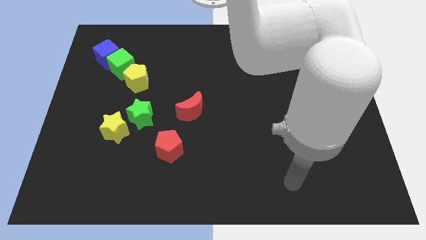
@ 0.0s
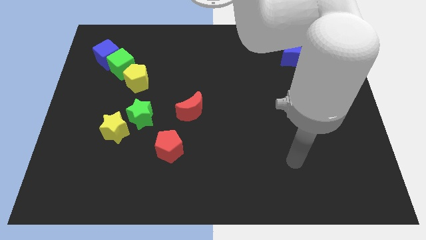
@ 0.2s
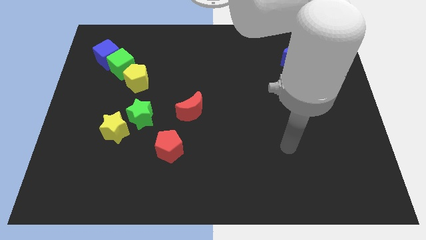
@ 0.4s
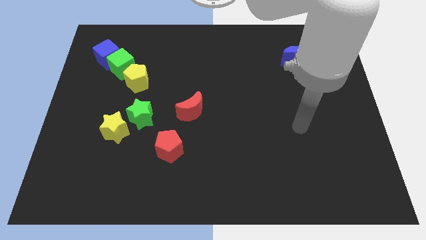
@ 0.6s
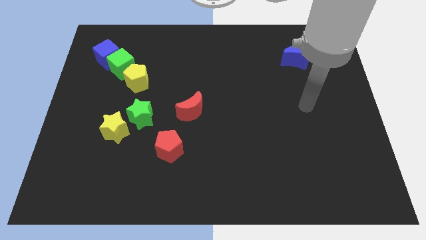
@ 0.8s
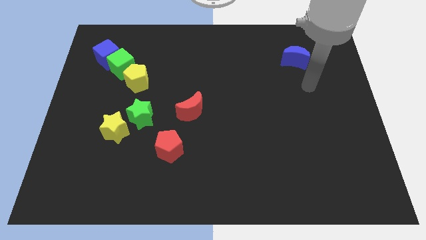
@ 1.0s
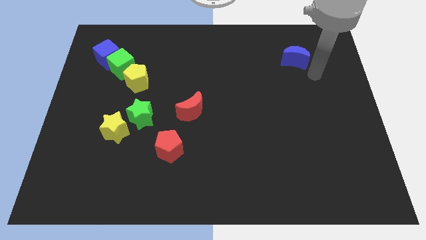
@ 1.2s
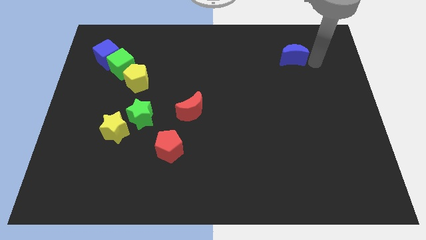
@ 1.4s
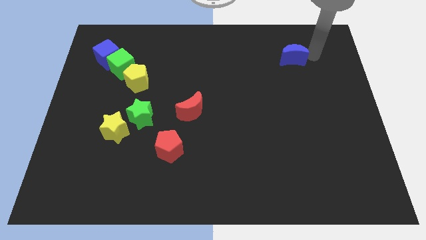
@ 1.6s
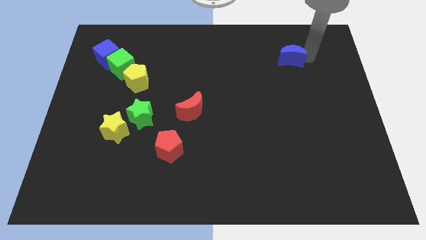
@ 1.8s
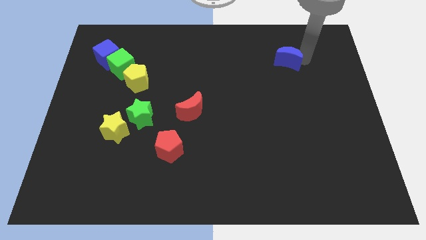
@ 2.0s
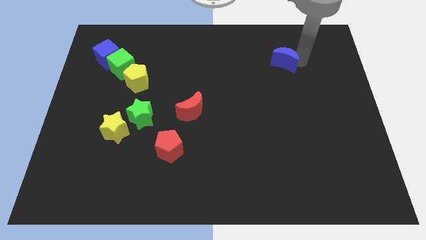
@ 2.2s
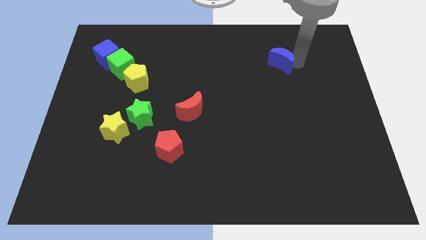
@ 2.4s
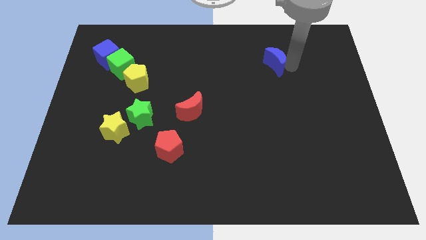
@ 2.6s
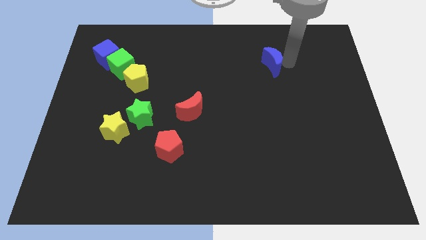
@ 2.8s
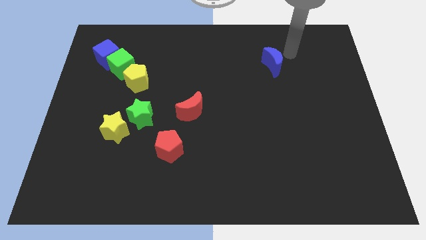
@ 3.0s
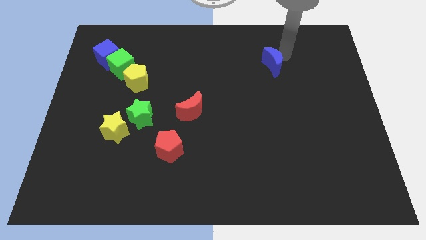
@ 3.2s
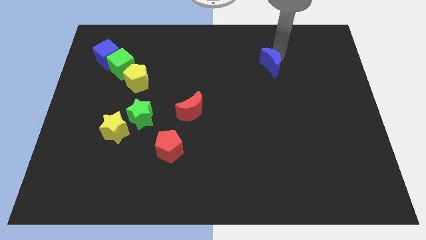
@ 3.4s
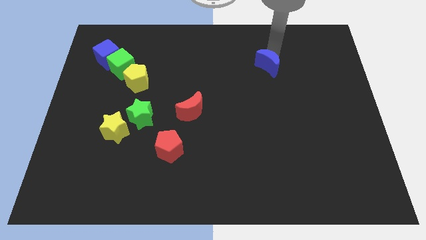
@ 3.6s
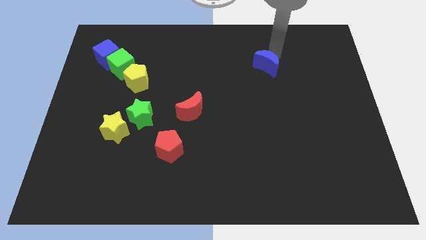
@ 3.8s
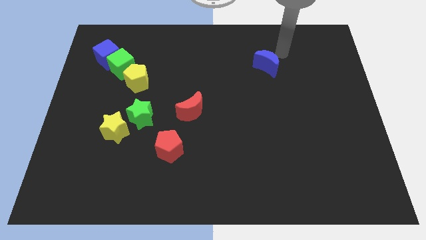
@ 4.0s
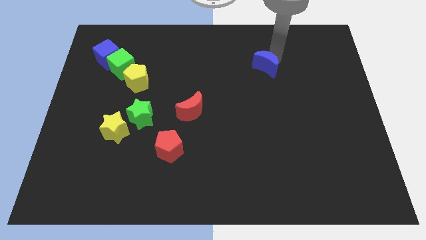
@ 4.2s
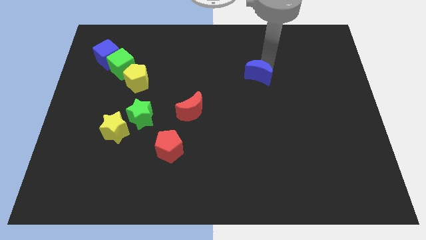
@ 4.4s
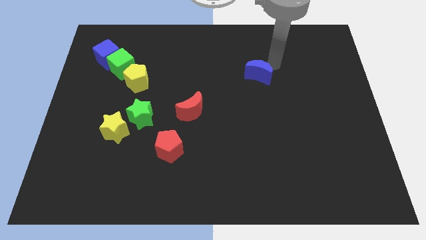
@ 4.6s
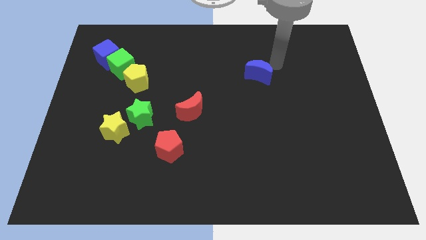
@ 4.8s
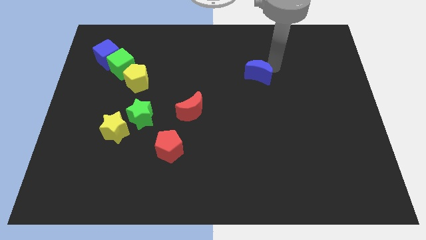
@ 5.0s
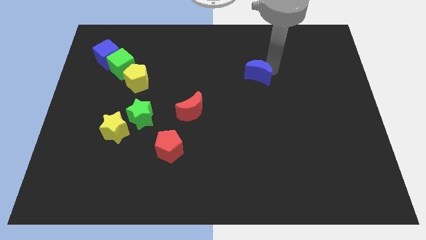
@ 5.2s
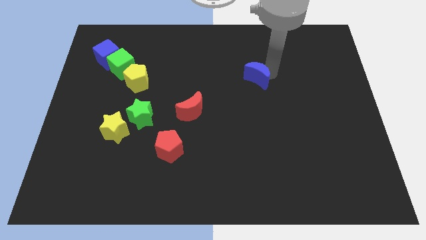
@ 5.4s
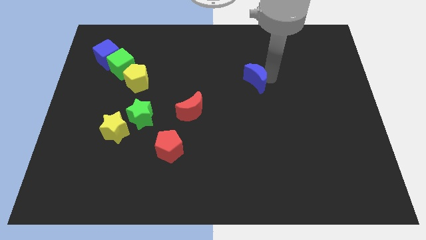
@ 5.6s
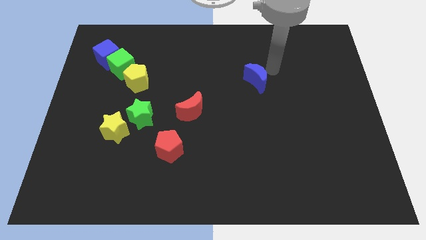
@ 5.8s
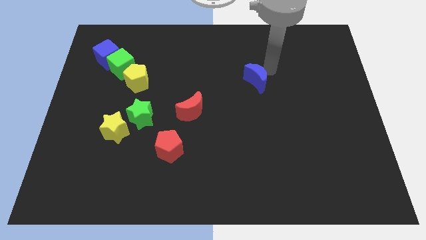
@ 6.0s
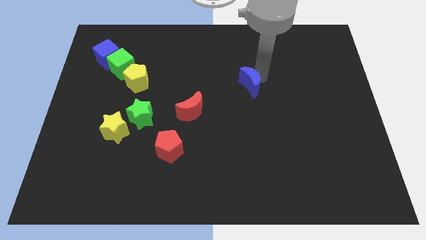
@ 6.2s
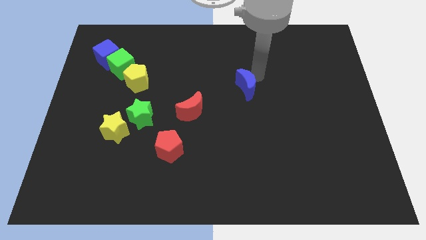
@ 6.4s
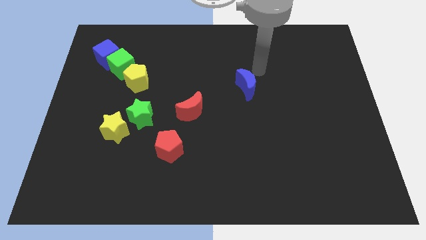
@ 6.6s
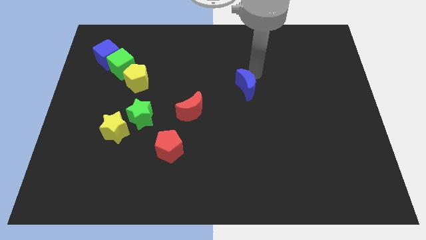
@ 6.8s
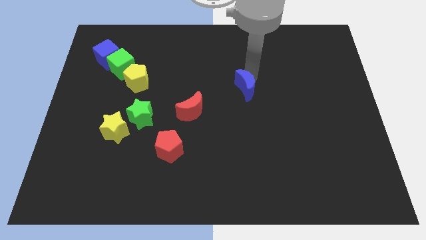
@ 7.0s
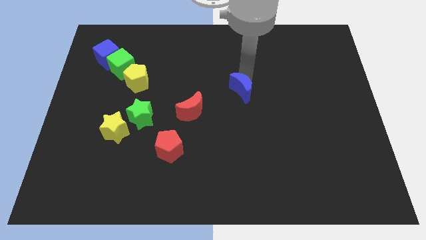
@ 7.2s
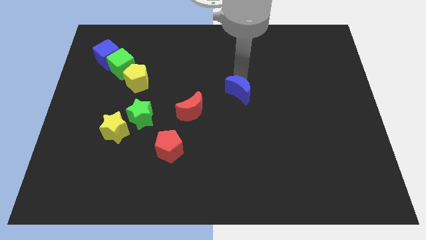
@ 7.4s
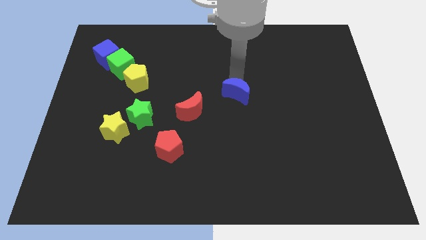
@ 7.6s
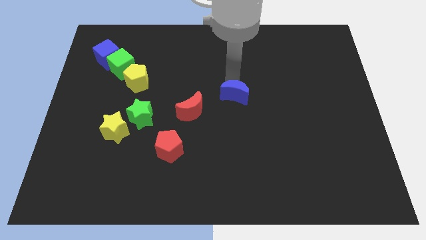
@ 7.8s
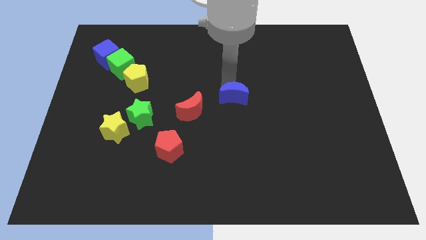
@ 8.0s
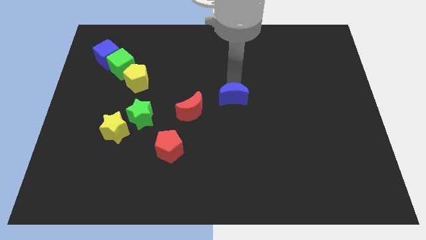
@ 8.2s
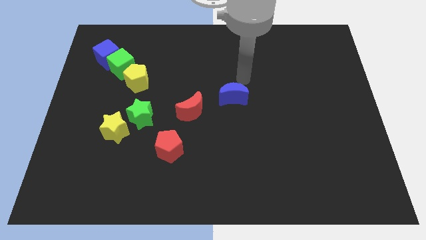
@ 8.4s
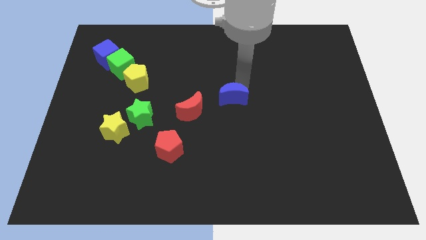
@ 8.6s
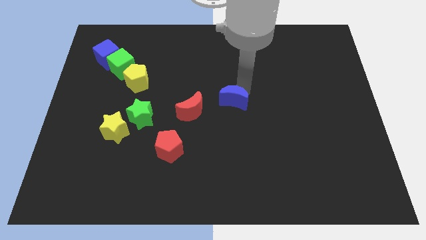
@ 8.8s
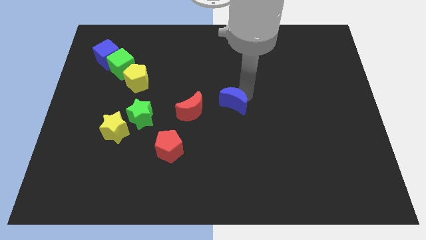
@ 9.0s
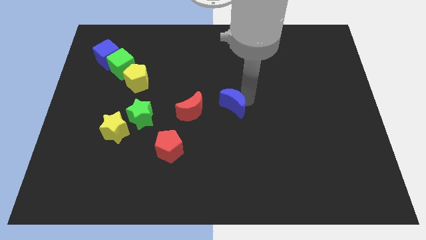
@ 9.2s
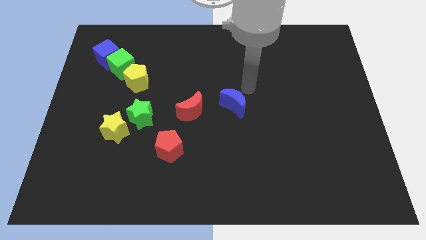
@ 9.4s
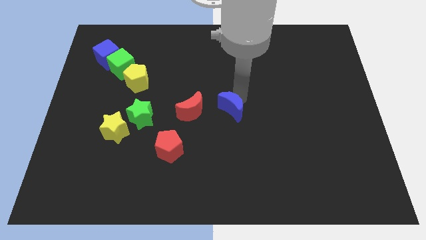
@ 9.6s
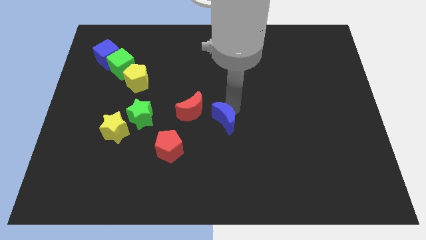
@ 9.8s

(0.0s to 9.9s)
push the blue moon to the bottom right of the red moon

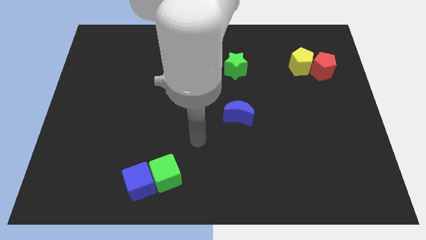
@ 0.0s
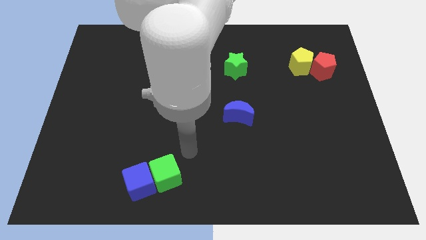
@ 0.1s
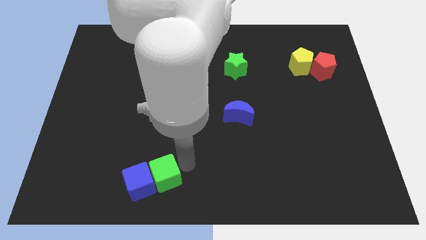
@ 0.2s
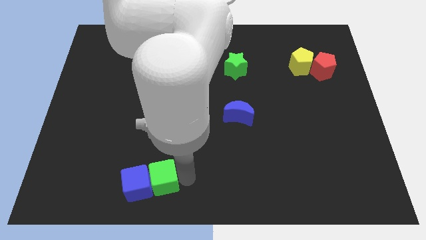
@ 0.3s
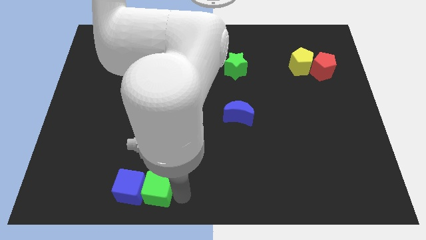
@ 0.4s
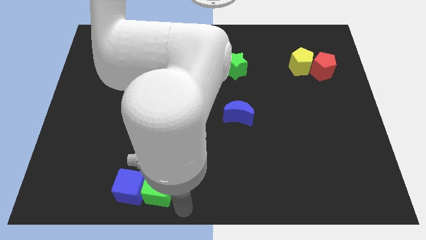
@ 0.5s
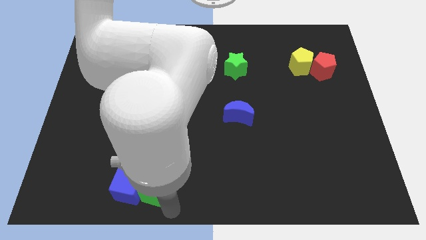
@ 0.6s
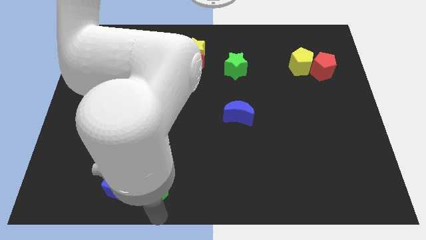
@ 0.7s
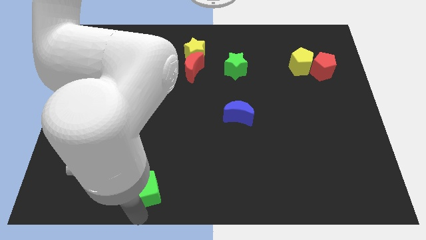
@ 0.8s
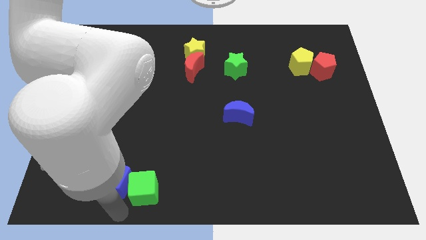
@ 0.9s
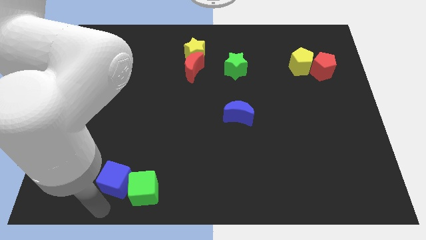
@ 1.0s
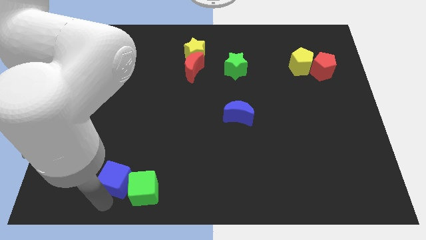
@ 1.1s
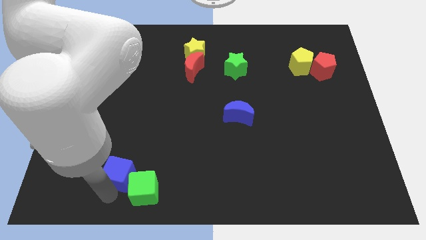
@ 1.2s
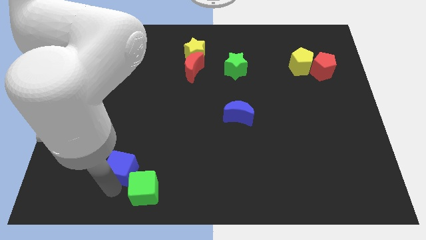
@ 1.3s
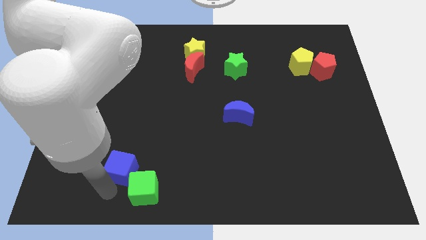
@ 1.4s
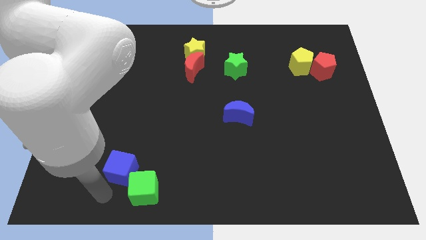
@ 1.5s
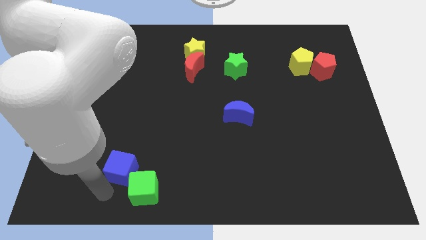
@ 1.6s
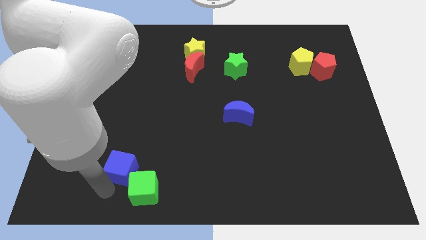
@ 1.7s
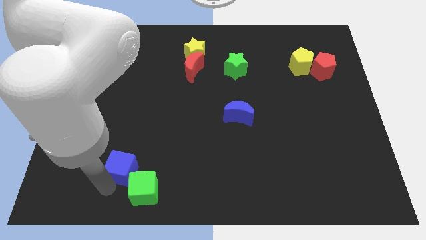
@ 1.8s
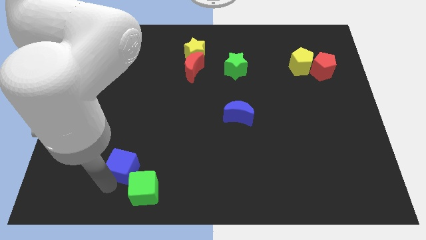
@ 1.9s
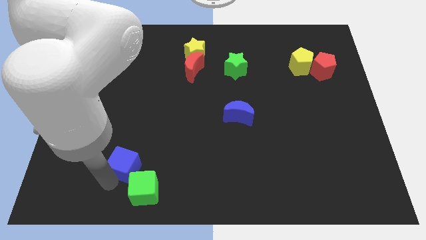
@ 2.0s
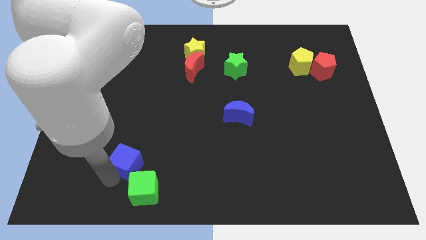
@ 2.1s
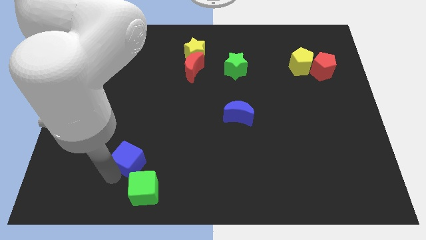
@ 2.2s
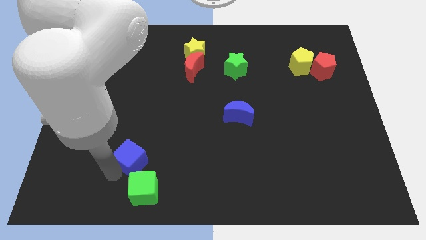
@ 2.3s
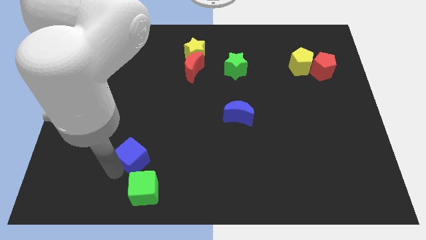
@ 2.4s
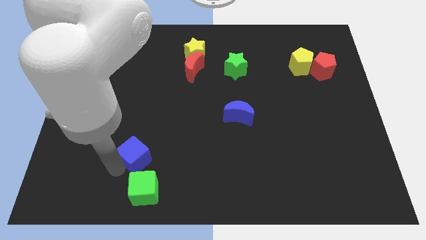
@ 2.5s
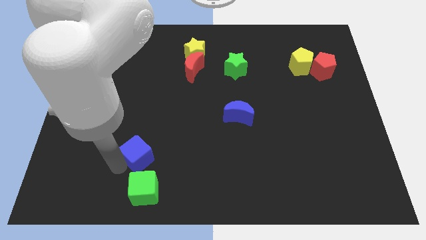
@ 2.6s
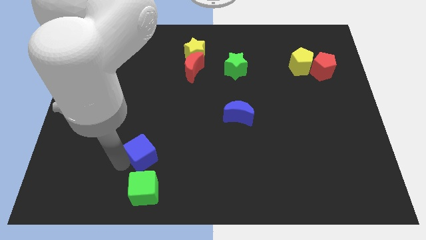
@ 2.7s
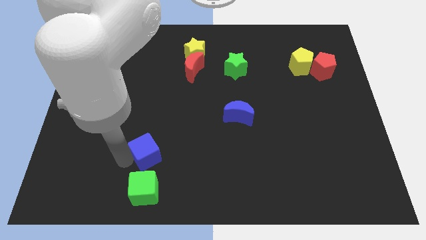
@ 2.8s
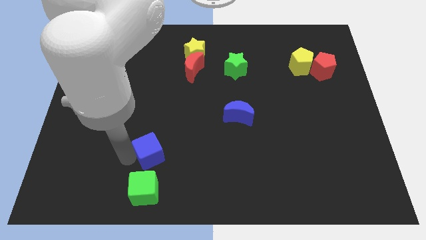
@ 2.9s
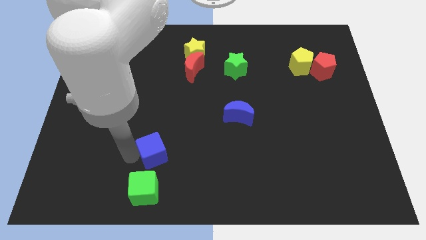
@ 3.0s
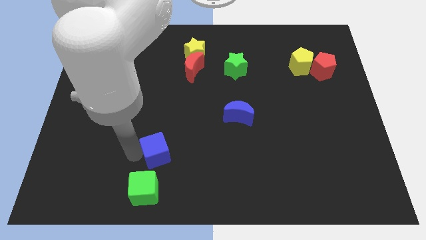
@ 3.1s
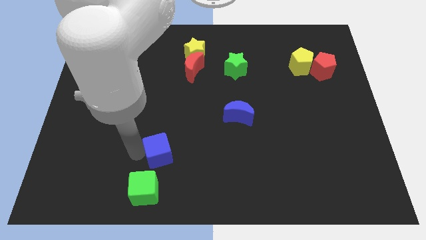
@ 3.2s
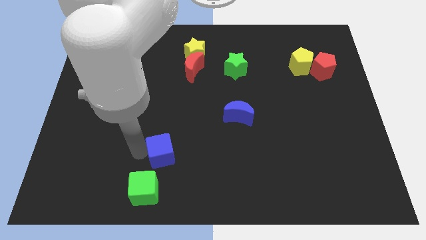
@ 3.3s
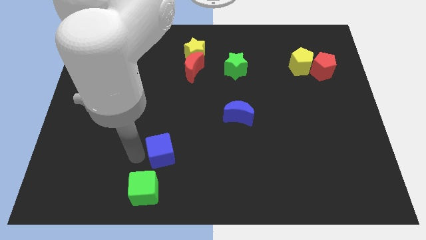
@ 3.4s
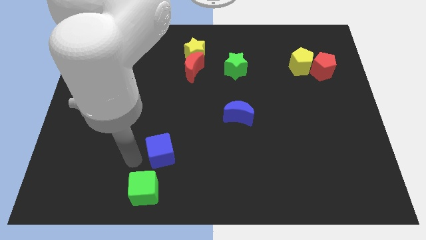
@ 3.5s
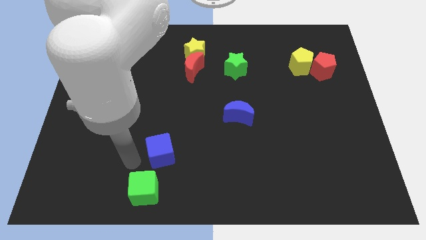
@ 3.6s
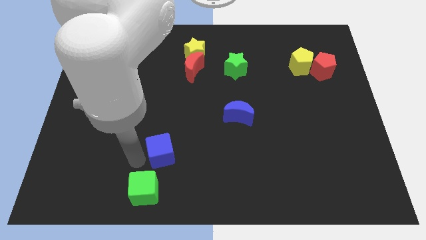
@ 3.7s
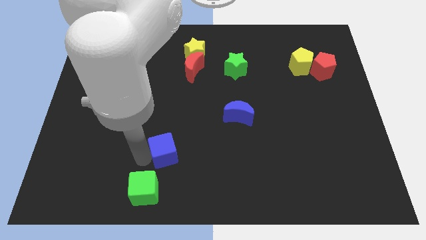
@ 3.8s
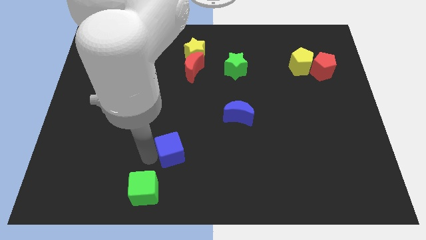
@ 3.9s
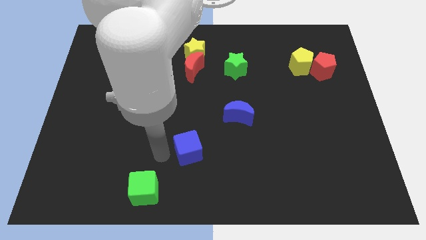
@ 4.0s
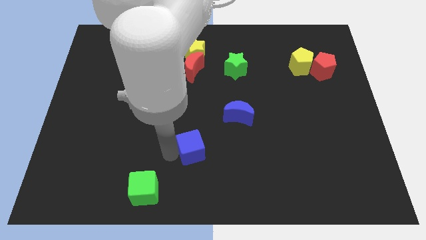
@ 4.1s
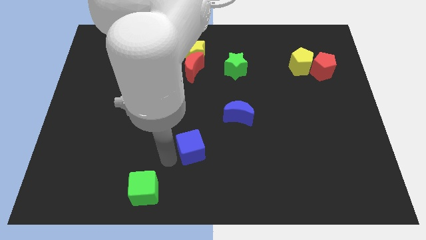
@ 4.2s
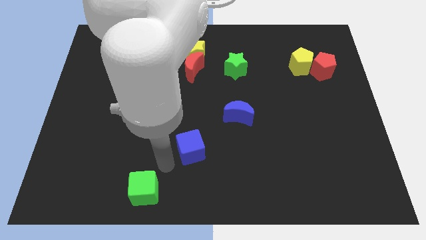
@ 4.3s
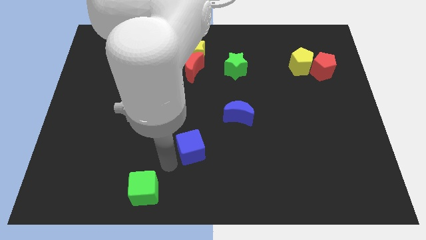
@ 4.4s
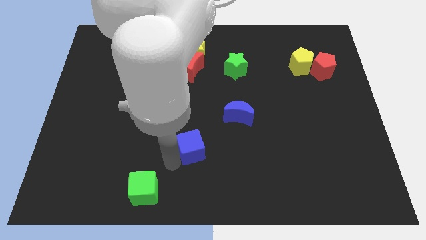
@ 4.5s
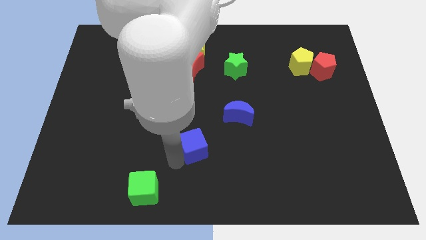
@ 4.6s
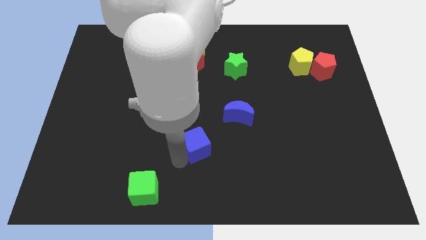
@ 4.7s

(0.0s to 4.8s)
slide the blue cube to the bottom left of the blue moon
